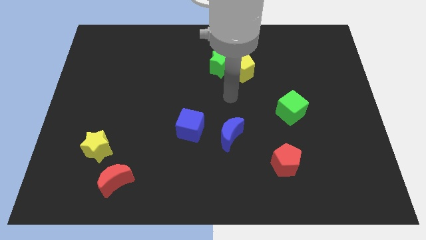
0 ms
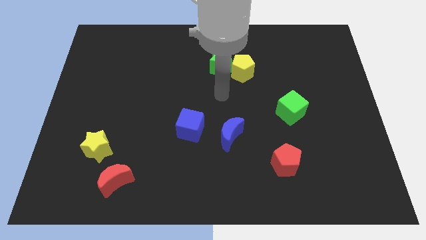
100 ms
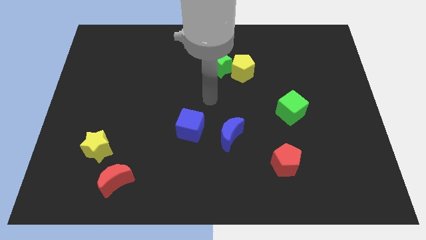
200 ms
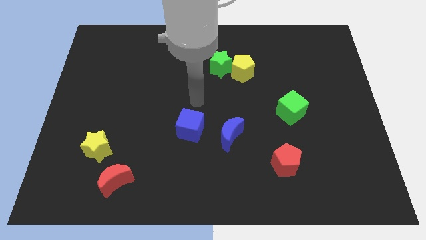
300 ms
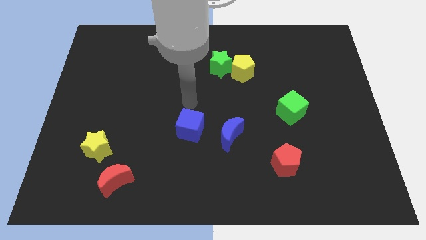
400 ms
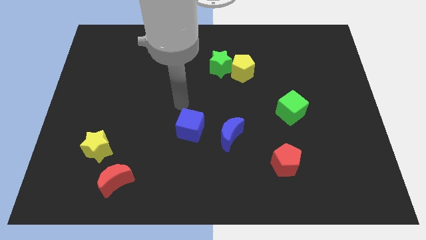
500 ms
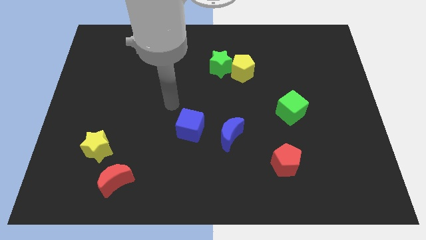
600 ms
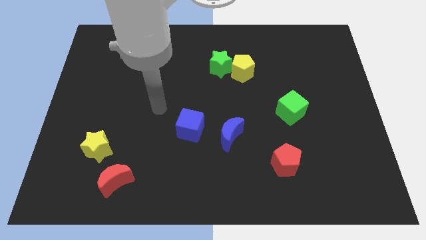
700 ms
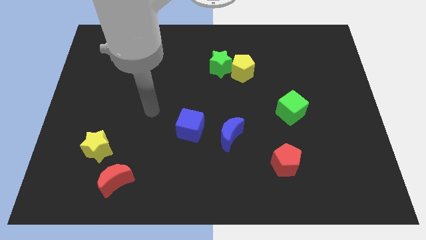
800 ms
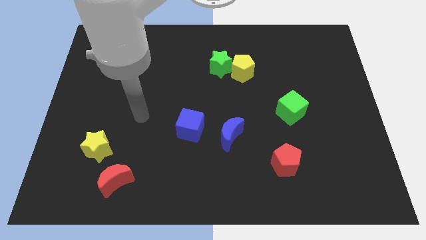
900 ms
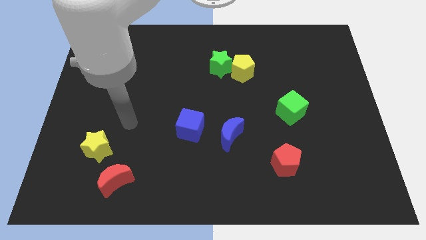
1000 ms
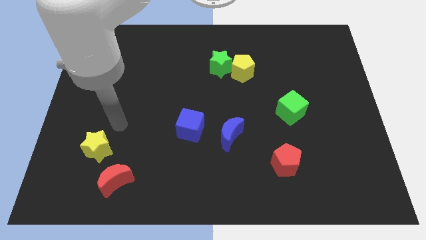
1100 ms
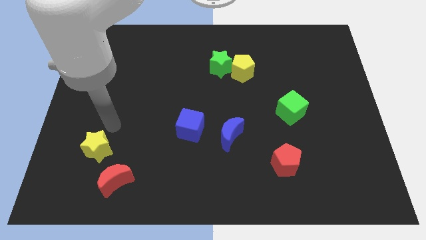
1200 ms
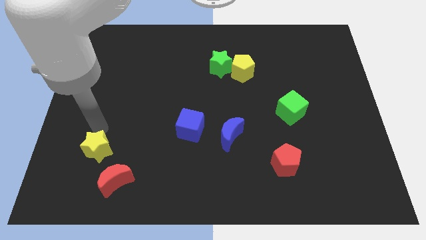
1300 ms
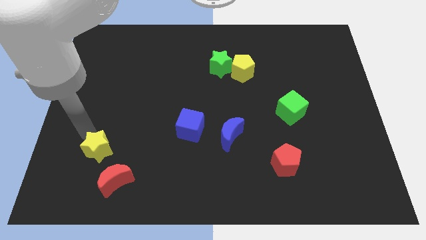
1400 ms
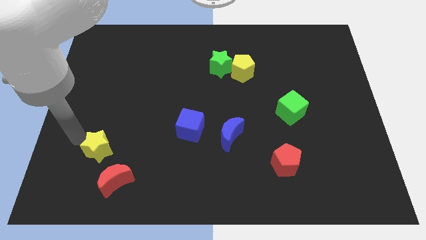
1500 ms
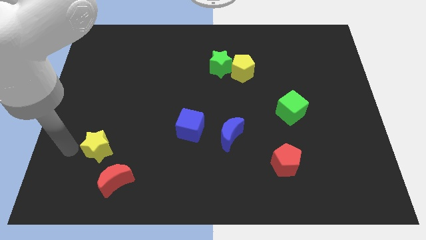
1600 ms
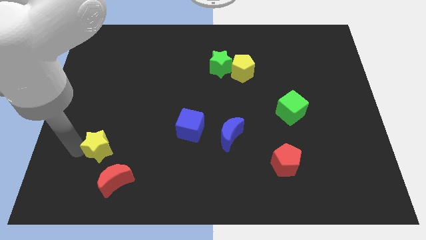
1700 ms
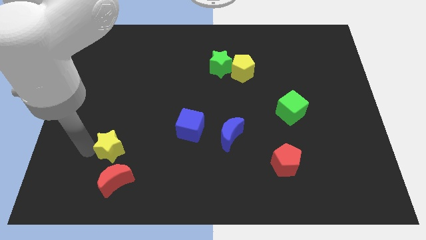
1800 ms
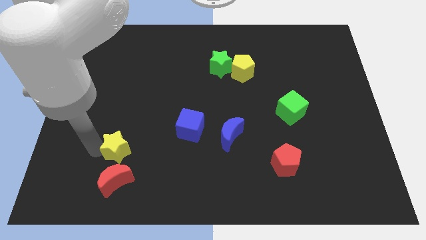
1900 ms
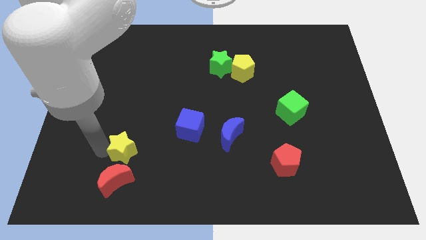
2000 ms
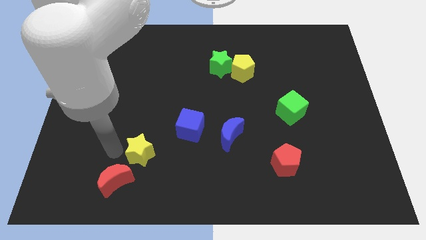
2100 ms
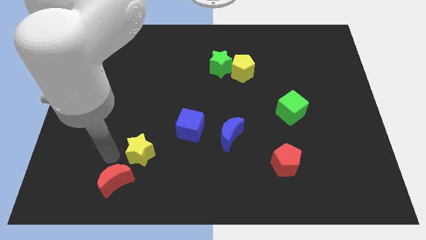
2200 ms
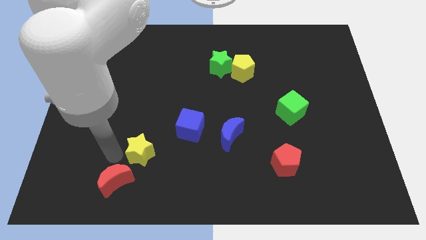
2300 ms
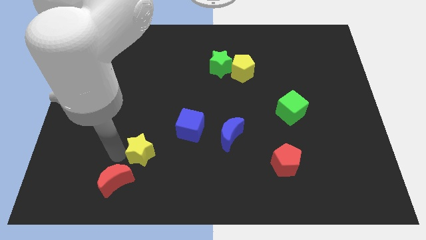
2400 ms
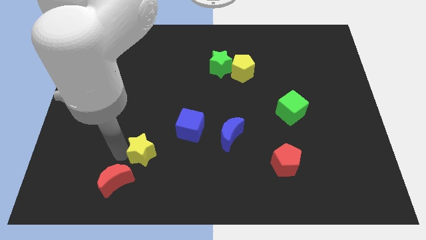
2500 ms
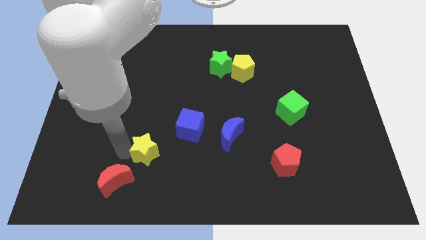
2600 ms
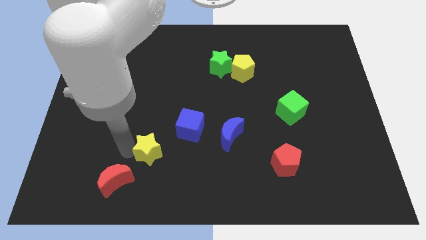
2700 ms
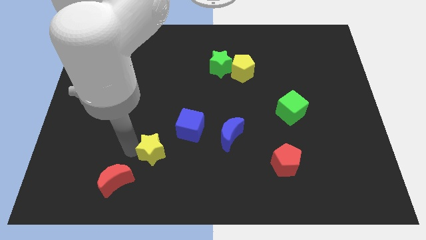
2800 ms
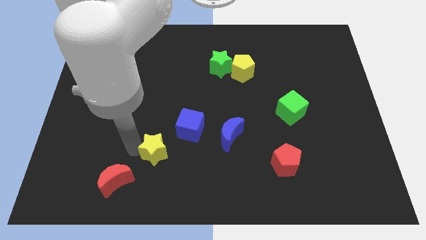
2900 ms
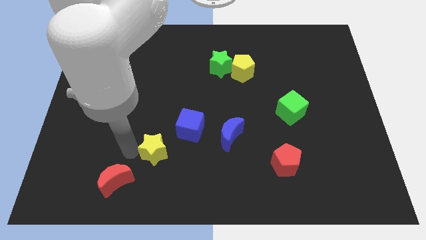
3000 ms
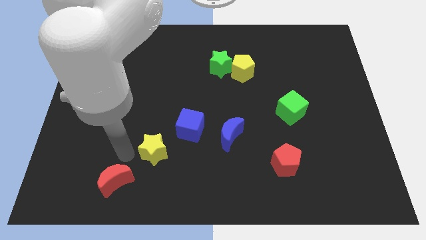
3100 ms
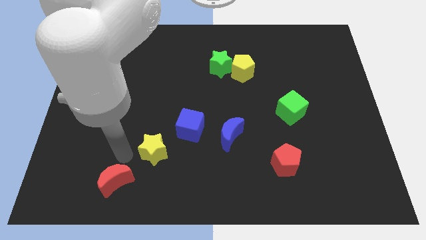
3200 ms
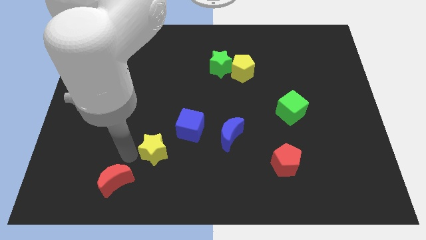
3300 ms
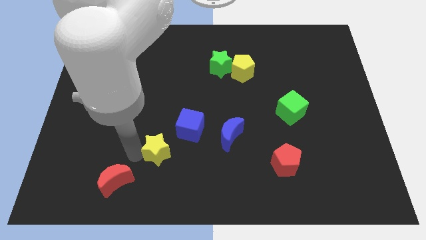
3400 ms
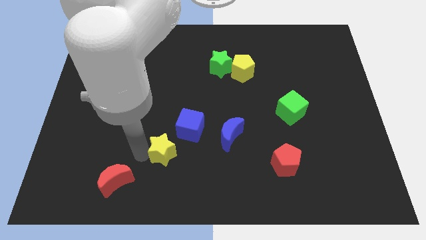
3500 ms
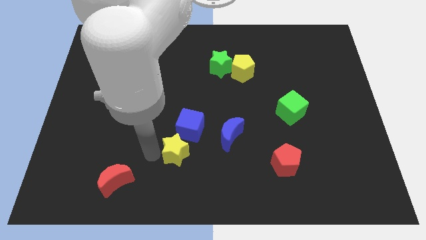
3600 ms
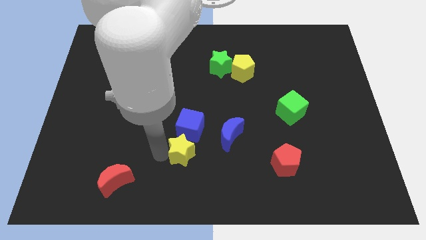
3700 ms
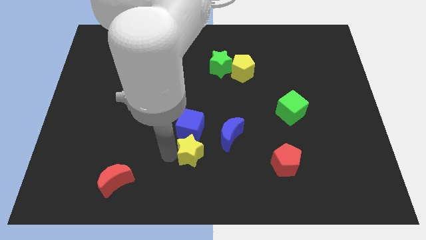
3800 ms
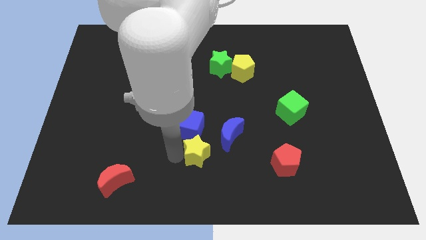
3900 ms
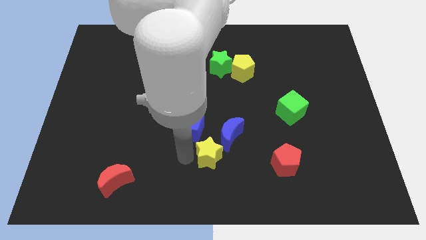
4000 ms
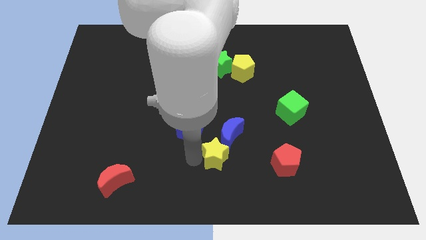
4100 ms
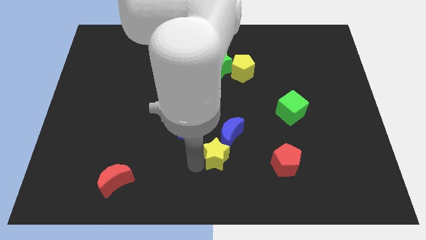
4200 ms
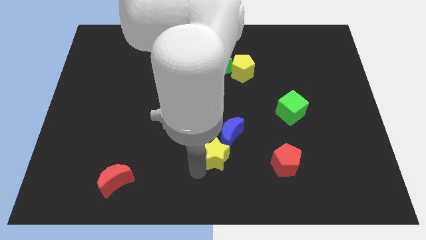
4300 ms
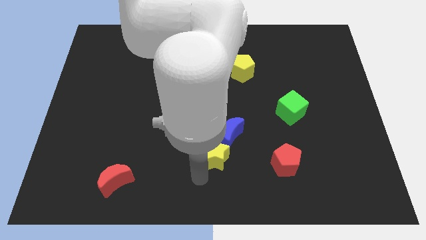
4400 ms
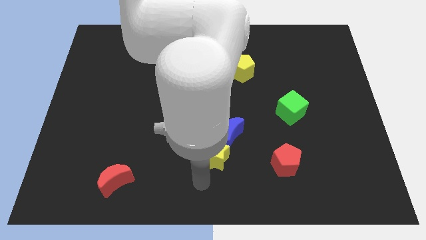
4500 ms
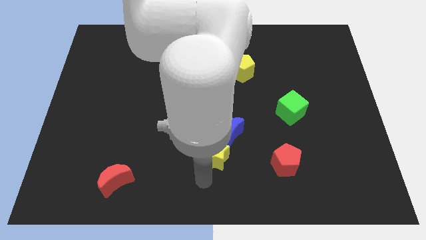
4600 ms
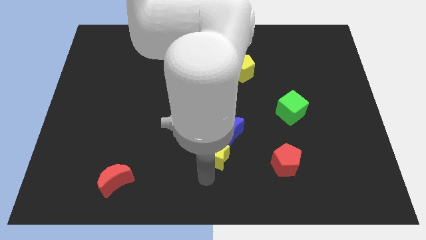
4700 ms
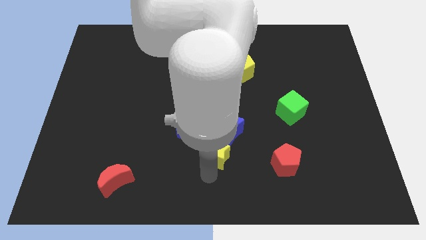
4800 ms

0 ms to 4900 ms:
push the yellow star to the blue moon

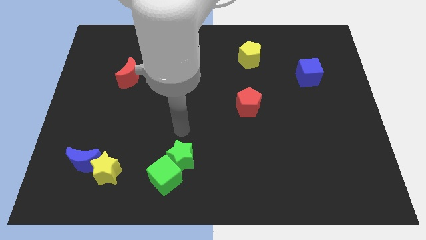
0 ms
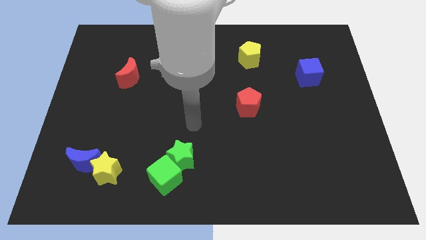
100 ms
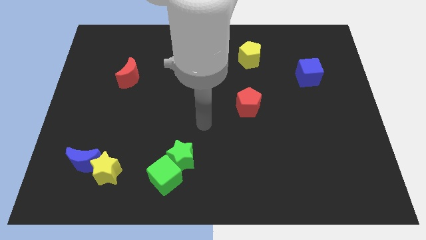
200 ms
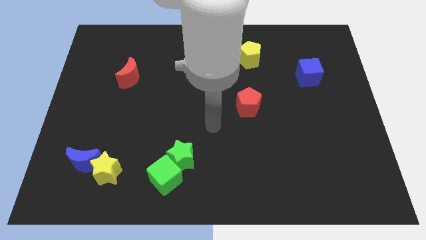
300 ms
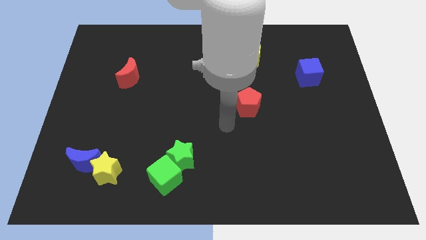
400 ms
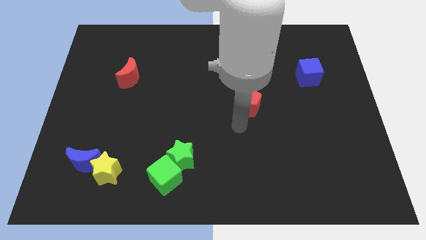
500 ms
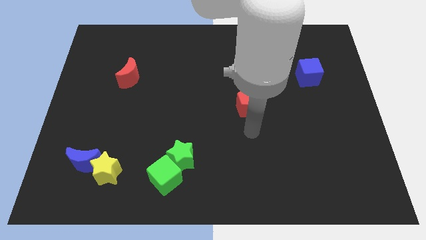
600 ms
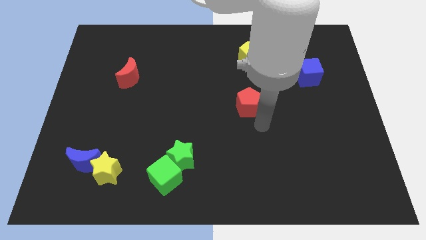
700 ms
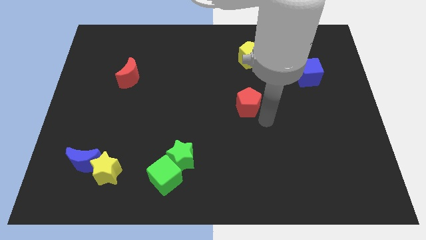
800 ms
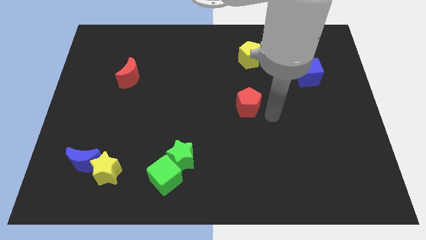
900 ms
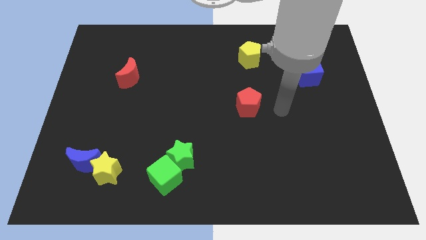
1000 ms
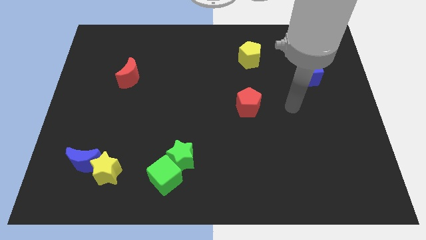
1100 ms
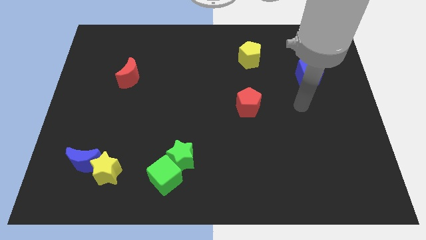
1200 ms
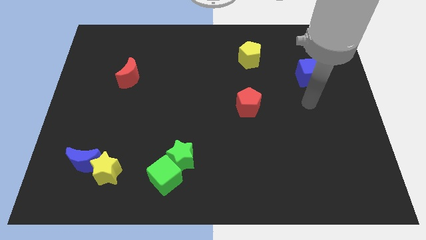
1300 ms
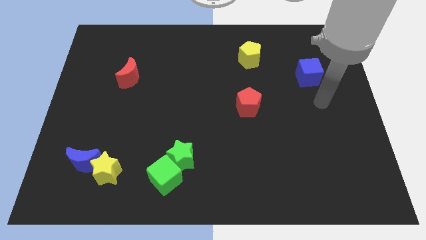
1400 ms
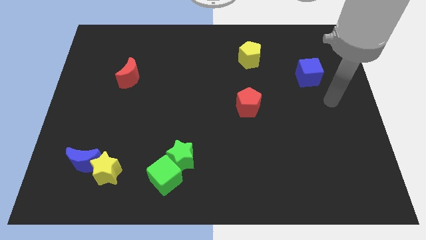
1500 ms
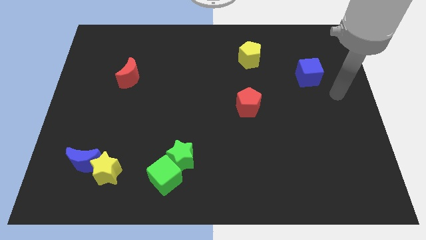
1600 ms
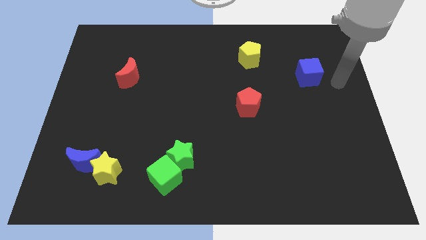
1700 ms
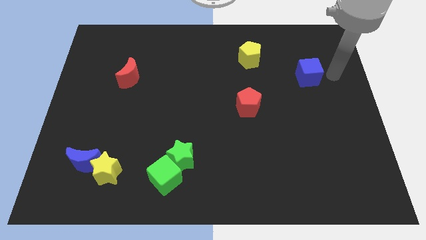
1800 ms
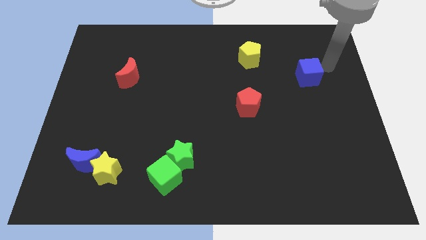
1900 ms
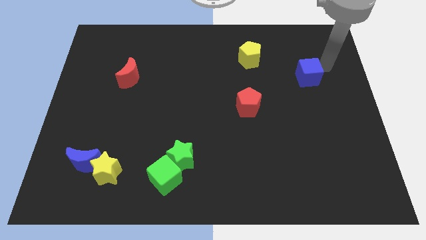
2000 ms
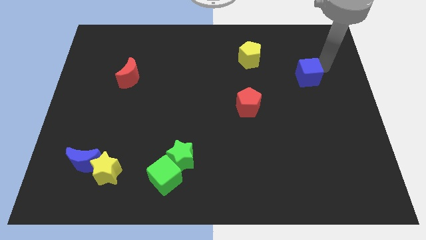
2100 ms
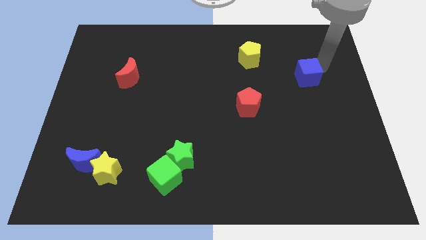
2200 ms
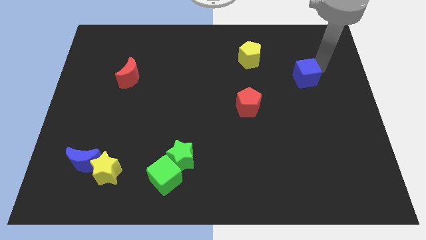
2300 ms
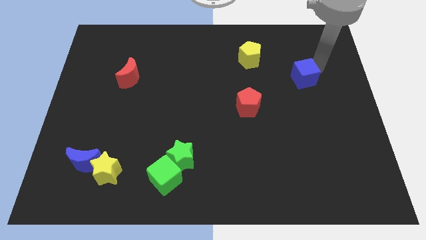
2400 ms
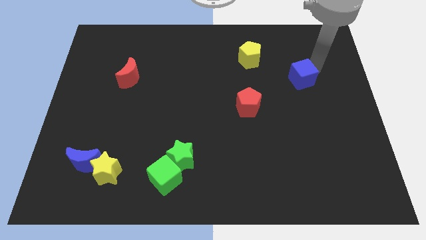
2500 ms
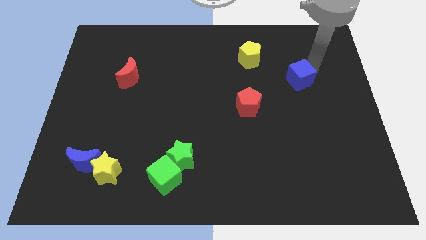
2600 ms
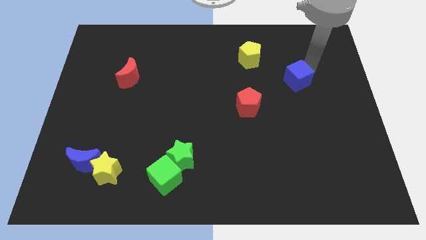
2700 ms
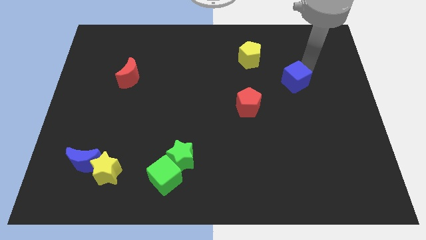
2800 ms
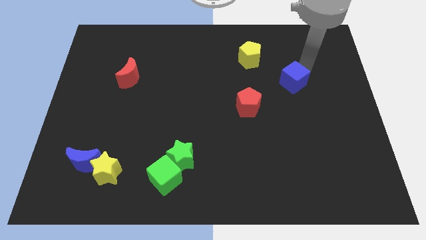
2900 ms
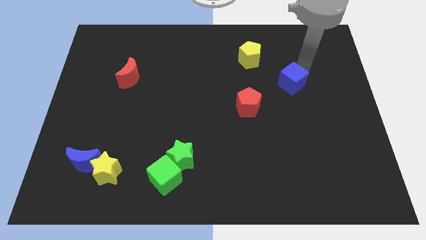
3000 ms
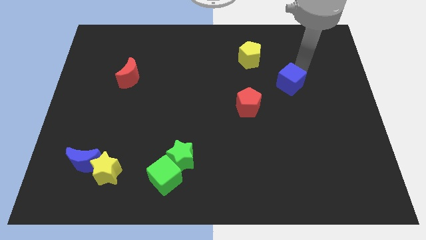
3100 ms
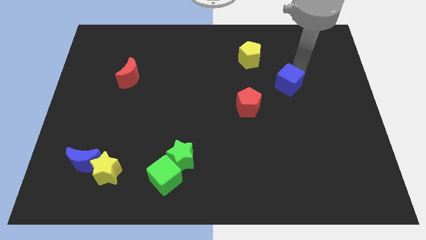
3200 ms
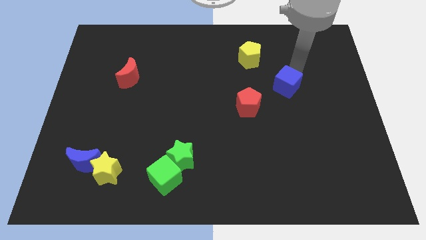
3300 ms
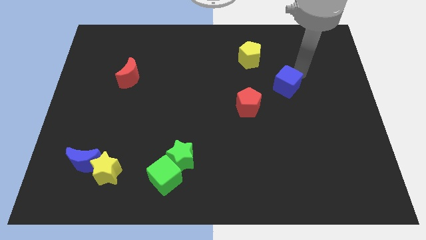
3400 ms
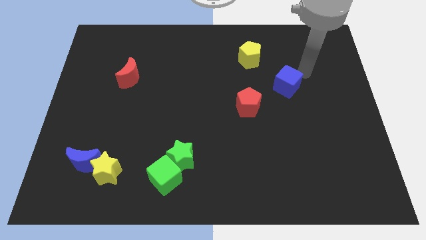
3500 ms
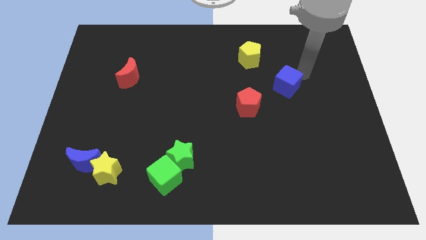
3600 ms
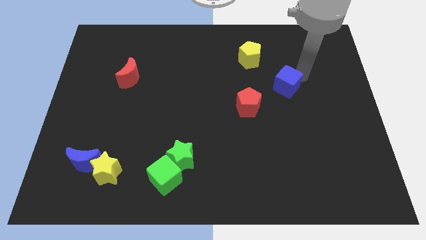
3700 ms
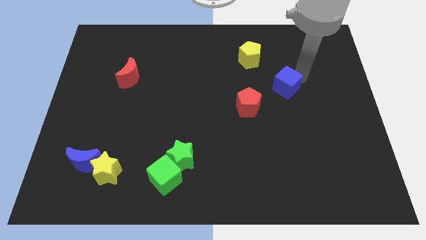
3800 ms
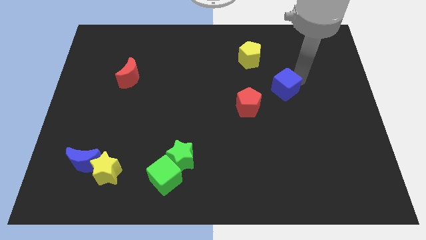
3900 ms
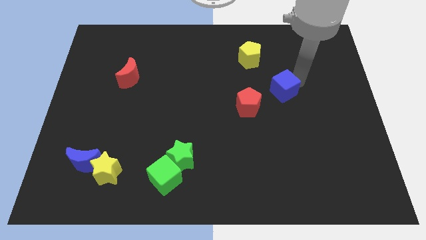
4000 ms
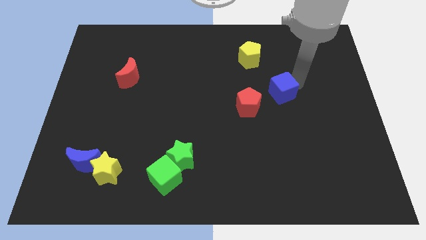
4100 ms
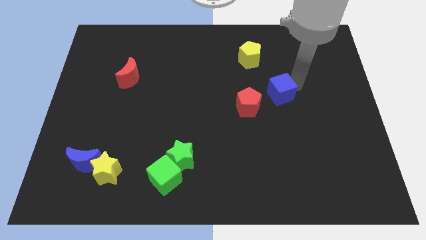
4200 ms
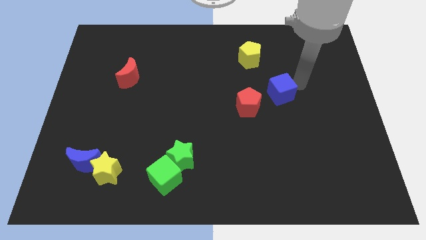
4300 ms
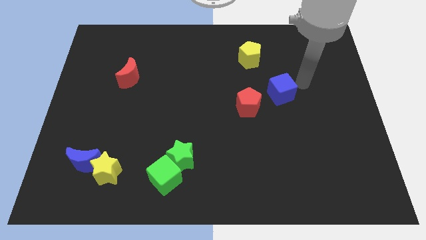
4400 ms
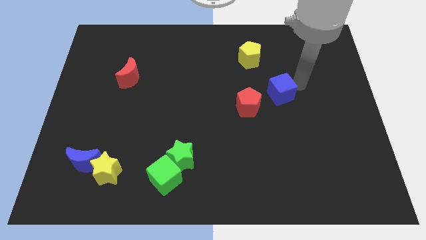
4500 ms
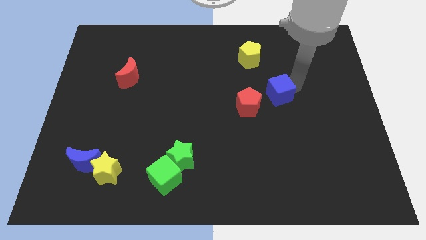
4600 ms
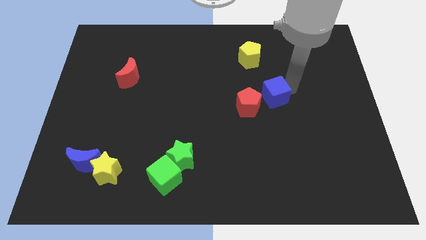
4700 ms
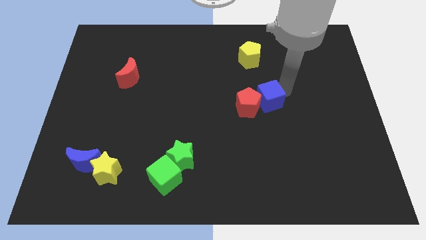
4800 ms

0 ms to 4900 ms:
push the blue cube next to the red pentagon
